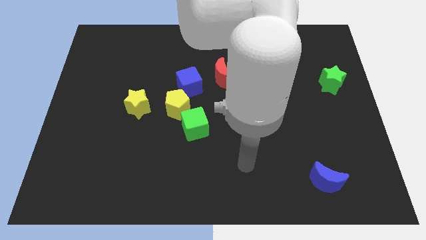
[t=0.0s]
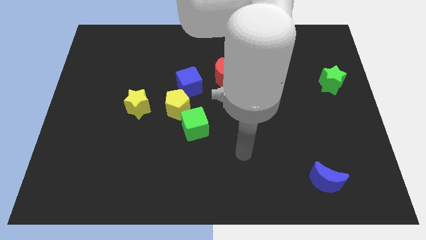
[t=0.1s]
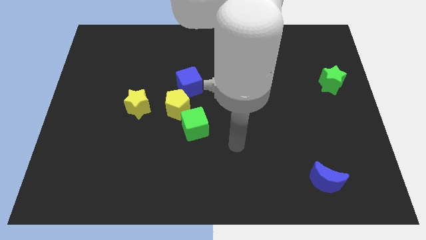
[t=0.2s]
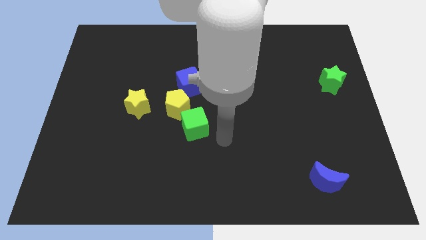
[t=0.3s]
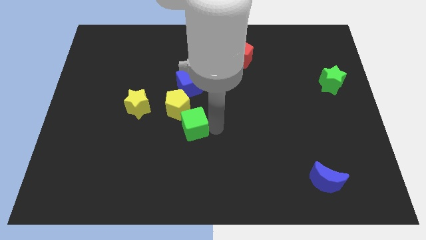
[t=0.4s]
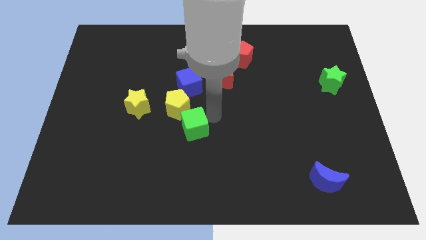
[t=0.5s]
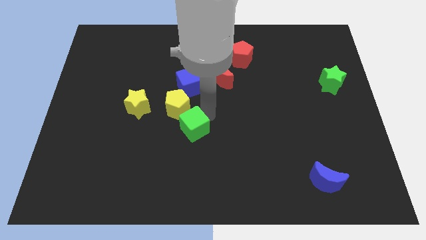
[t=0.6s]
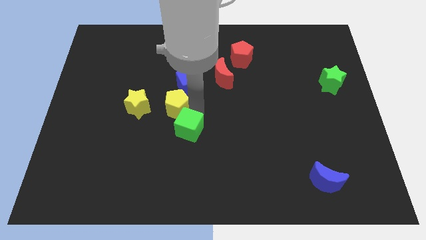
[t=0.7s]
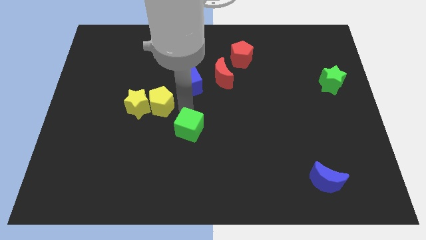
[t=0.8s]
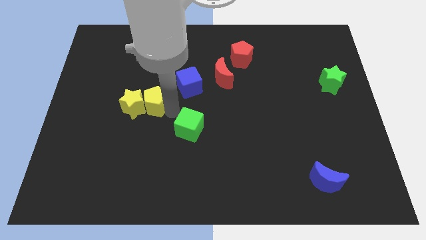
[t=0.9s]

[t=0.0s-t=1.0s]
move the green cube away from the yellow pentagon

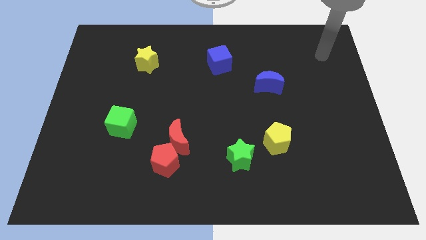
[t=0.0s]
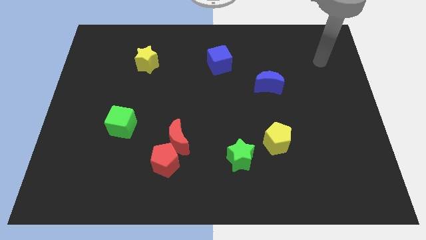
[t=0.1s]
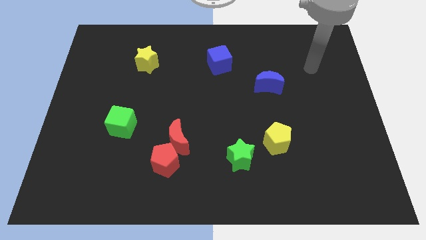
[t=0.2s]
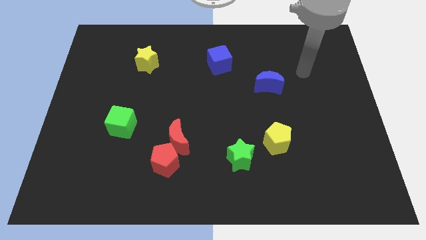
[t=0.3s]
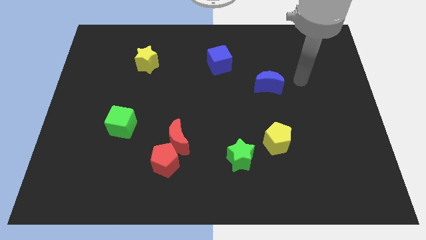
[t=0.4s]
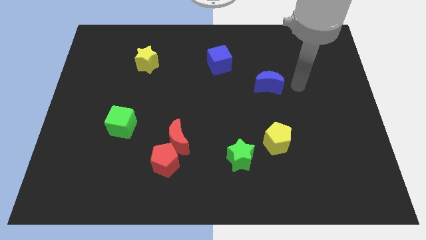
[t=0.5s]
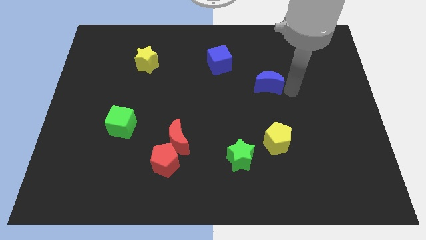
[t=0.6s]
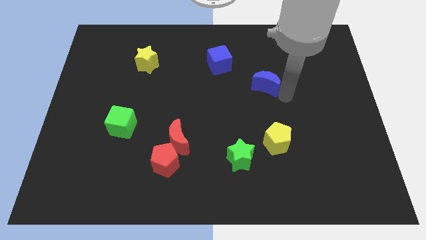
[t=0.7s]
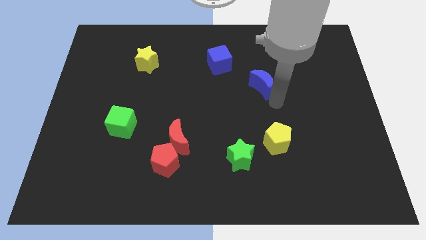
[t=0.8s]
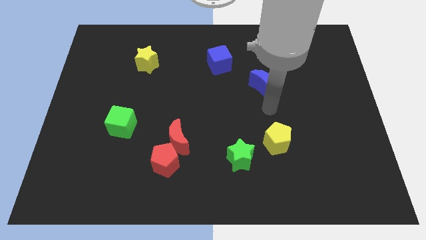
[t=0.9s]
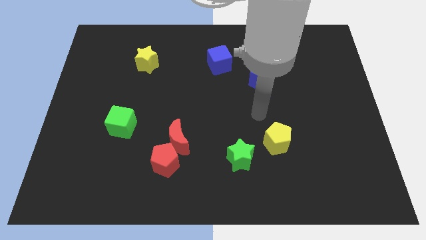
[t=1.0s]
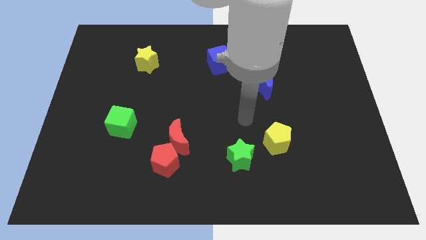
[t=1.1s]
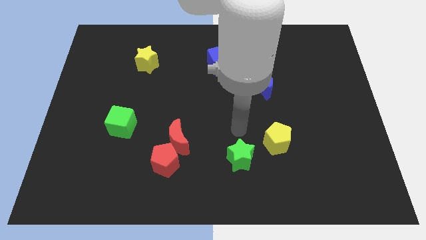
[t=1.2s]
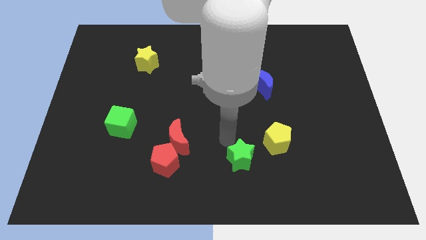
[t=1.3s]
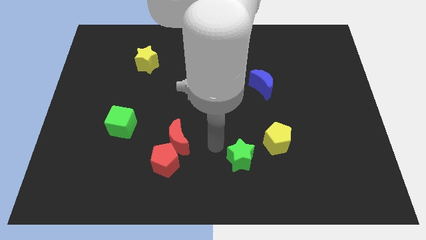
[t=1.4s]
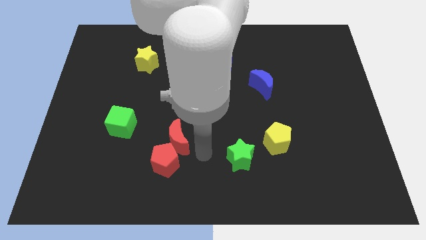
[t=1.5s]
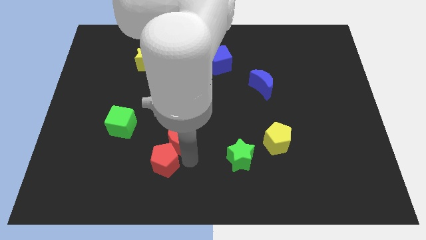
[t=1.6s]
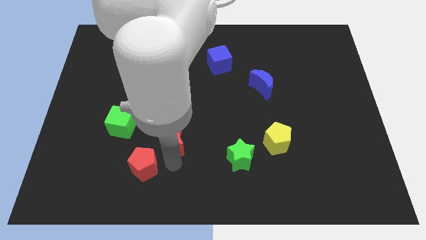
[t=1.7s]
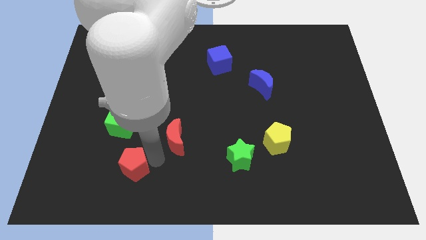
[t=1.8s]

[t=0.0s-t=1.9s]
pull the red moon apart from the red pentagon

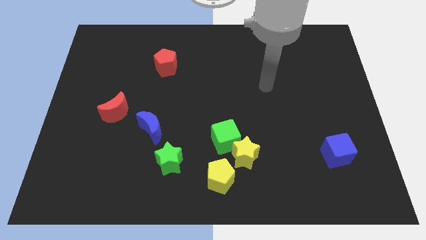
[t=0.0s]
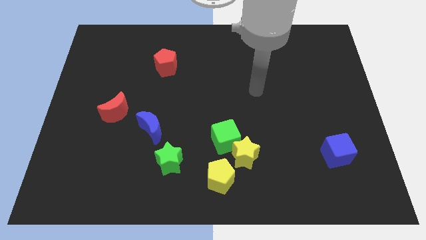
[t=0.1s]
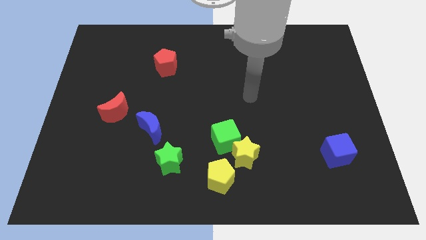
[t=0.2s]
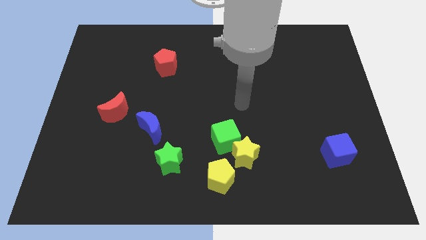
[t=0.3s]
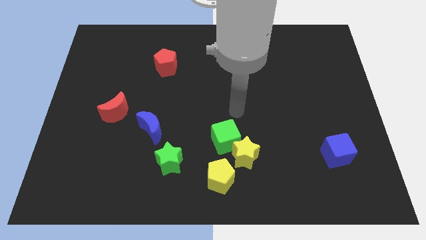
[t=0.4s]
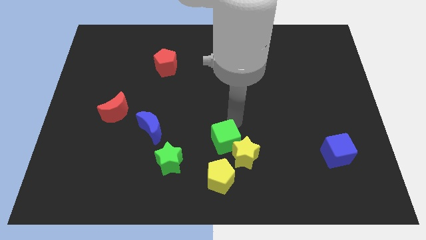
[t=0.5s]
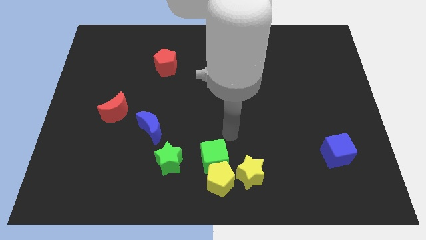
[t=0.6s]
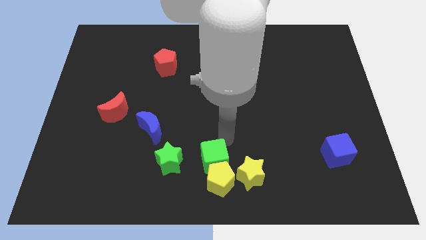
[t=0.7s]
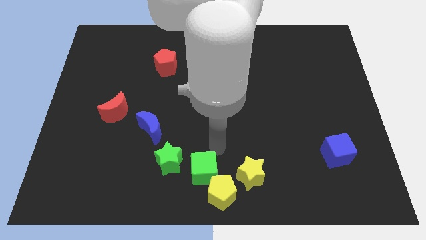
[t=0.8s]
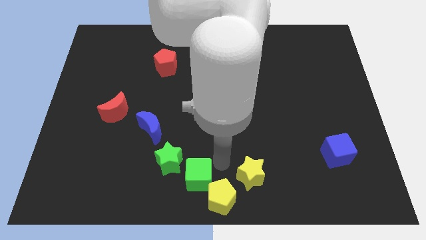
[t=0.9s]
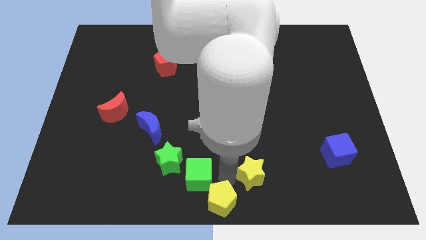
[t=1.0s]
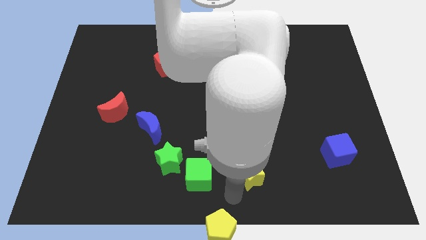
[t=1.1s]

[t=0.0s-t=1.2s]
separate the yellow star from the green cube and yellow pentagon

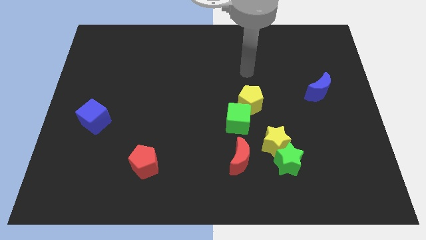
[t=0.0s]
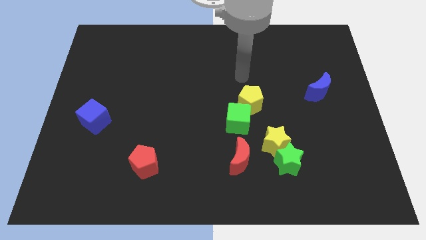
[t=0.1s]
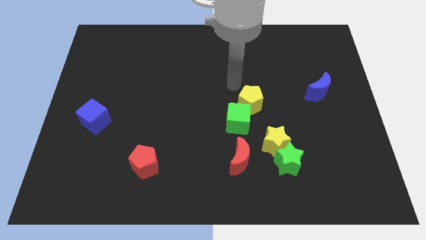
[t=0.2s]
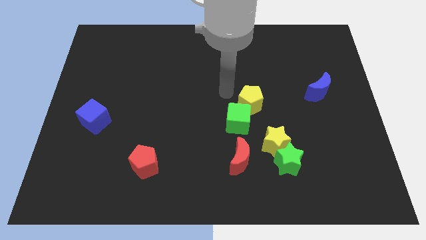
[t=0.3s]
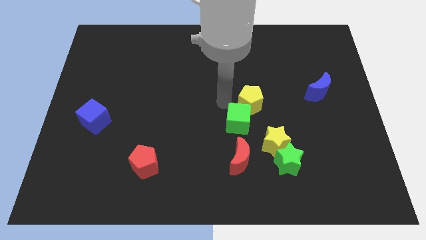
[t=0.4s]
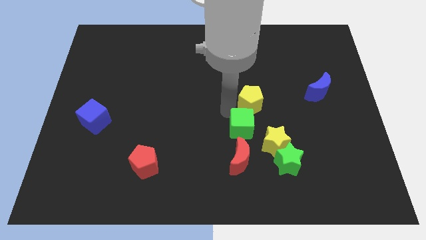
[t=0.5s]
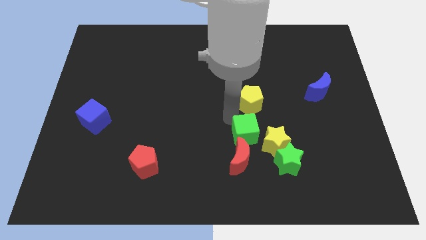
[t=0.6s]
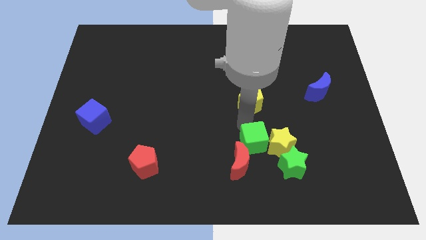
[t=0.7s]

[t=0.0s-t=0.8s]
pull the yellow pentagon apart from the green cube

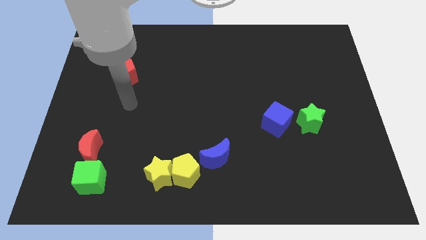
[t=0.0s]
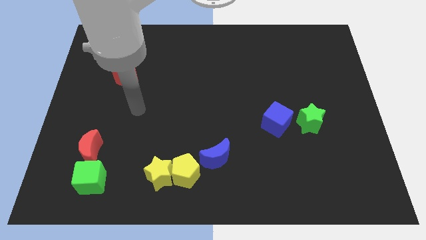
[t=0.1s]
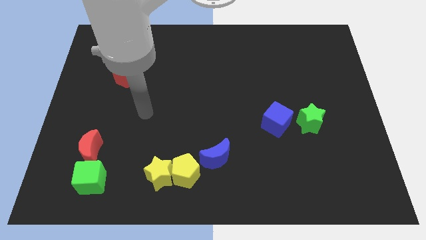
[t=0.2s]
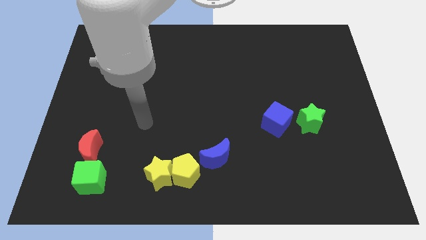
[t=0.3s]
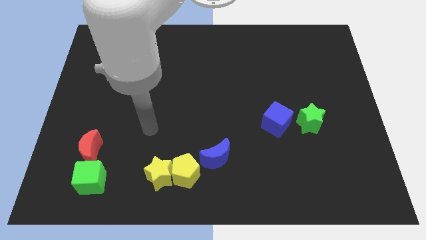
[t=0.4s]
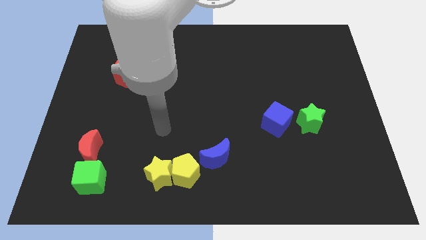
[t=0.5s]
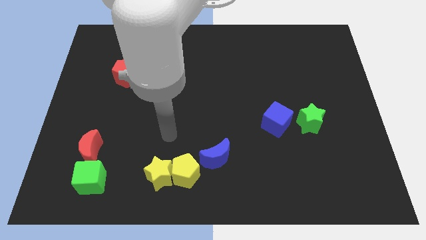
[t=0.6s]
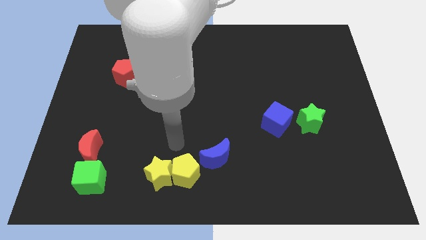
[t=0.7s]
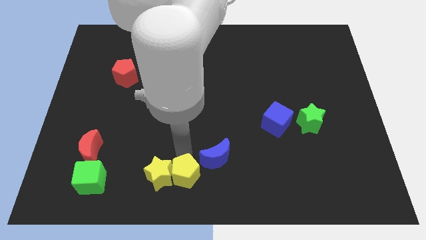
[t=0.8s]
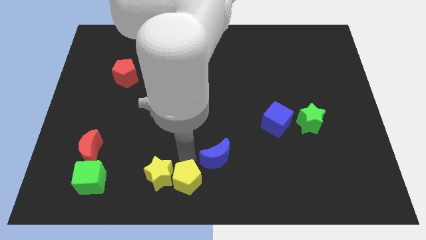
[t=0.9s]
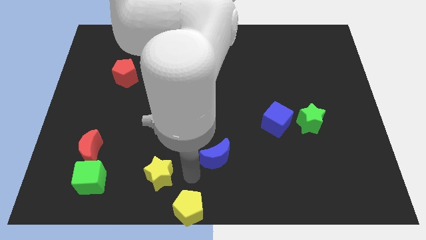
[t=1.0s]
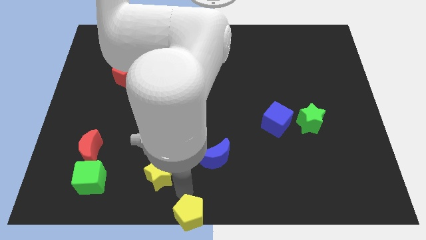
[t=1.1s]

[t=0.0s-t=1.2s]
pull the yellow star apart from the yellow pentagon

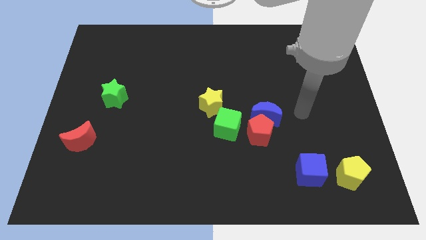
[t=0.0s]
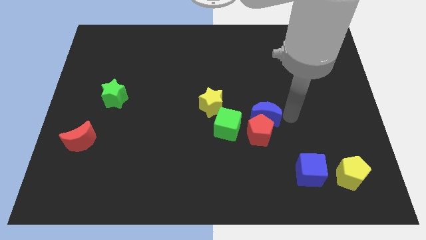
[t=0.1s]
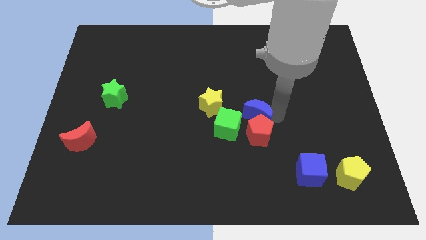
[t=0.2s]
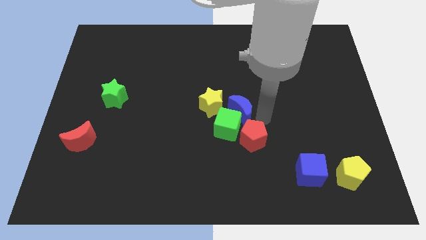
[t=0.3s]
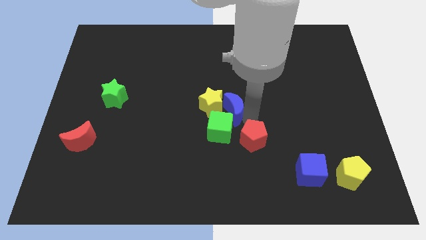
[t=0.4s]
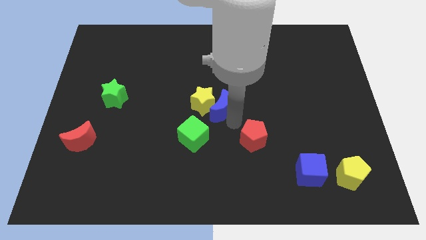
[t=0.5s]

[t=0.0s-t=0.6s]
move the red pentagon away from the blue moon and green cube

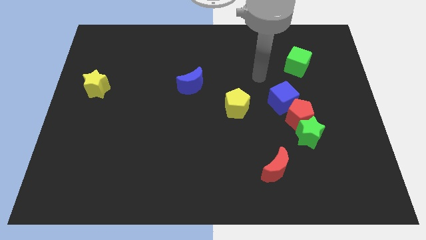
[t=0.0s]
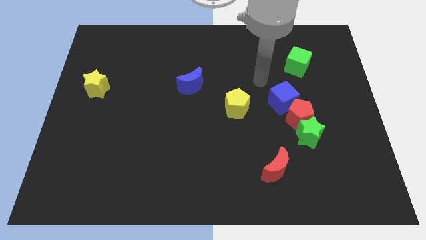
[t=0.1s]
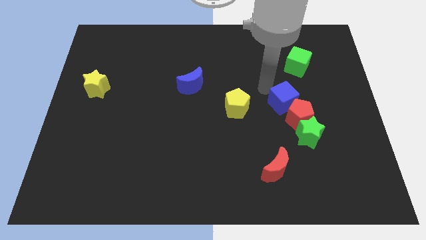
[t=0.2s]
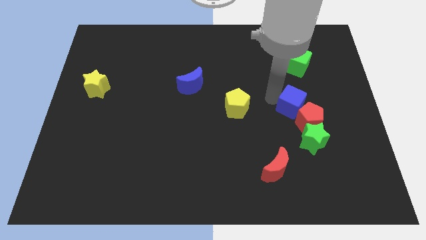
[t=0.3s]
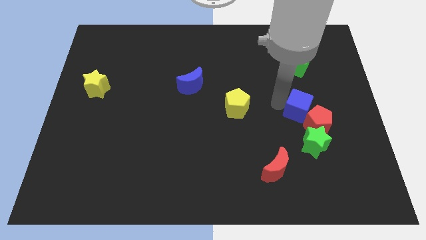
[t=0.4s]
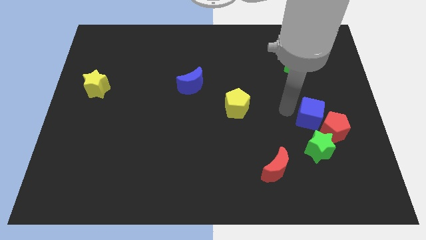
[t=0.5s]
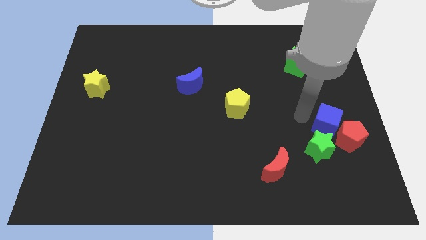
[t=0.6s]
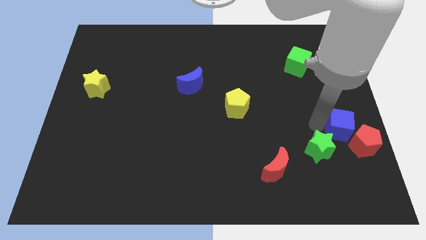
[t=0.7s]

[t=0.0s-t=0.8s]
move the green star away from the red pentagon

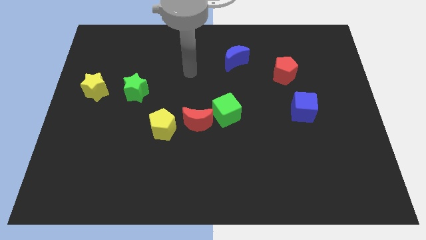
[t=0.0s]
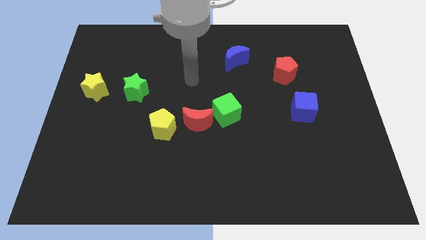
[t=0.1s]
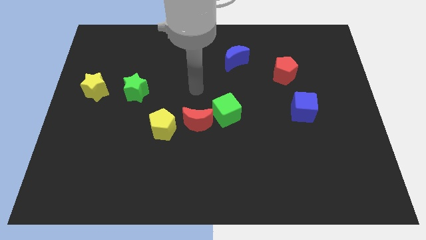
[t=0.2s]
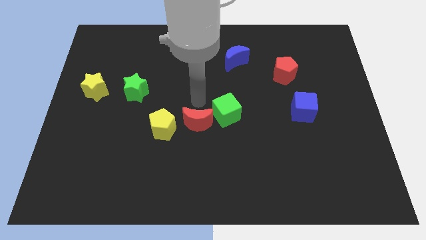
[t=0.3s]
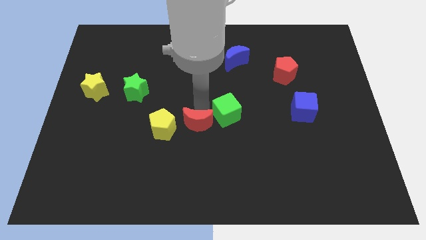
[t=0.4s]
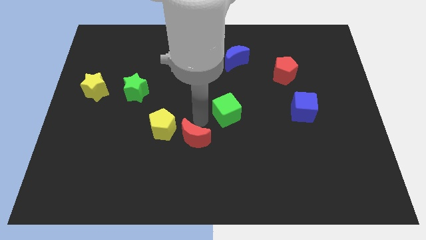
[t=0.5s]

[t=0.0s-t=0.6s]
separate the green cube from the red moon

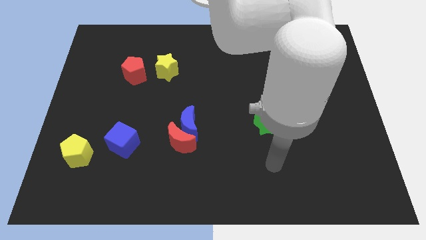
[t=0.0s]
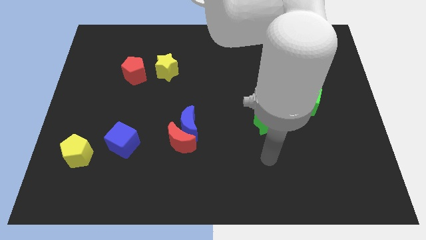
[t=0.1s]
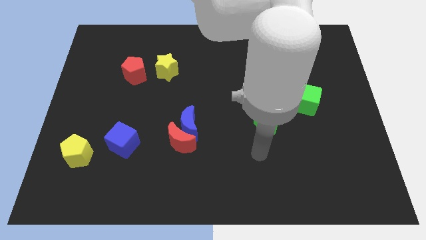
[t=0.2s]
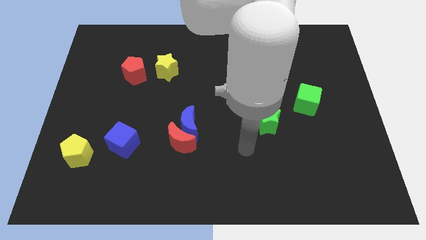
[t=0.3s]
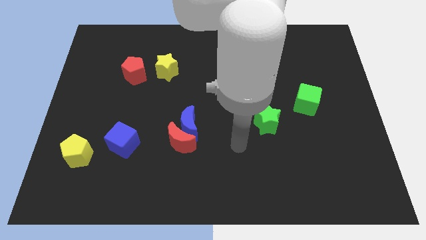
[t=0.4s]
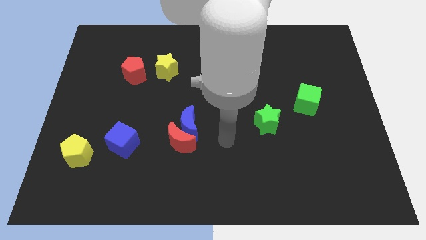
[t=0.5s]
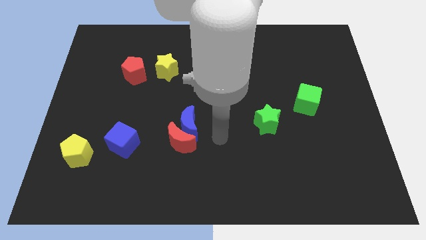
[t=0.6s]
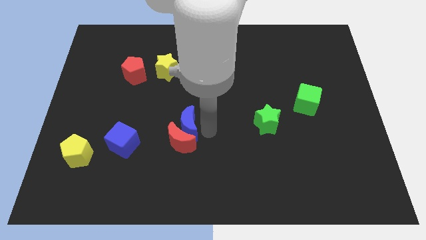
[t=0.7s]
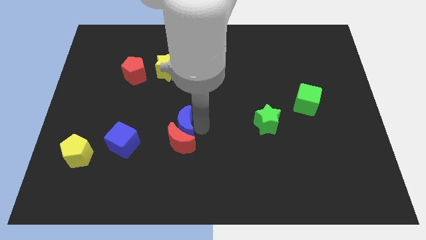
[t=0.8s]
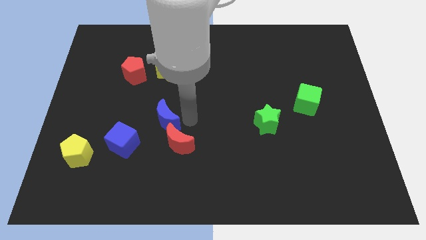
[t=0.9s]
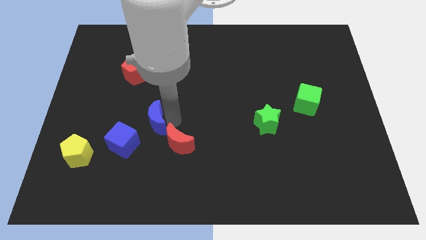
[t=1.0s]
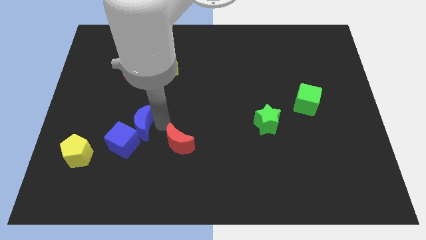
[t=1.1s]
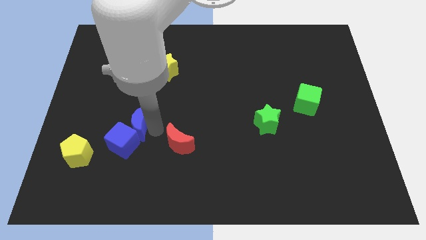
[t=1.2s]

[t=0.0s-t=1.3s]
move the red moon away from the blue moon
